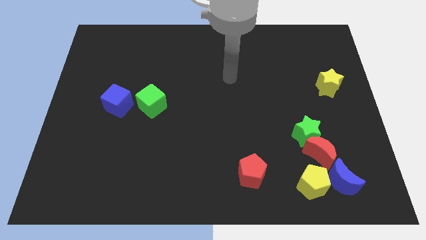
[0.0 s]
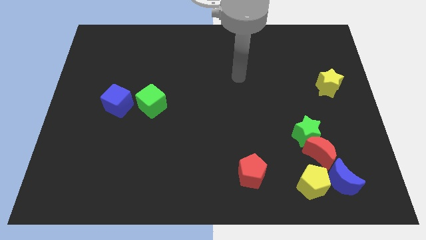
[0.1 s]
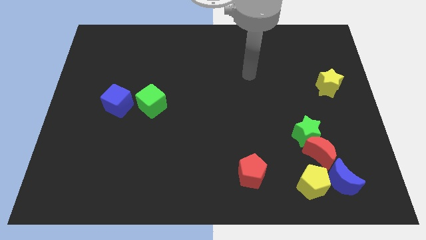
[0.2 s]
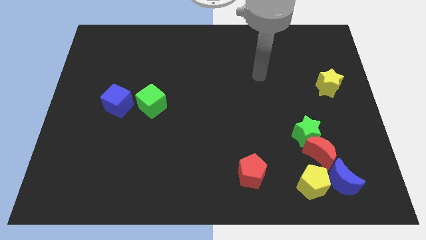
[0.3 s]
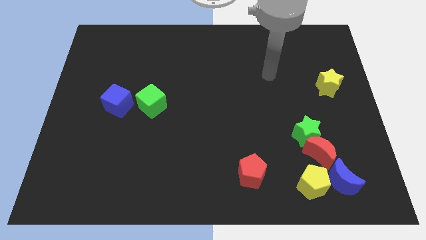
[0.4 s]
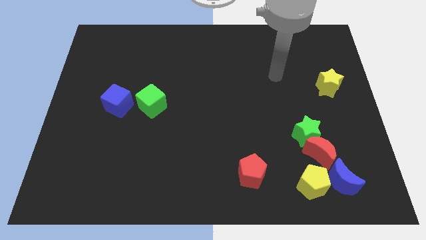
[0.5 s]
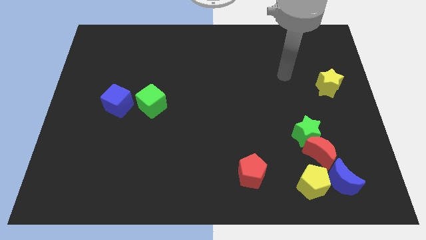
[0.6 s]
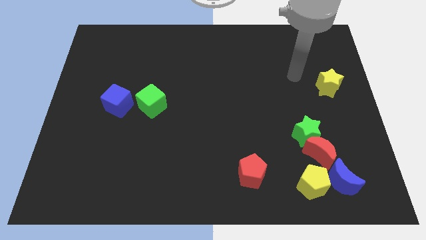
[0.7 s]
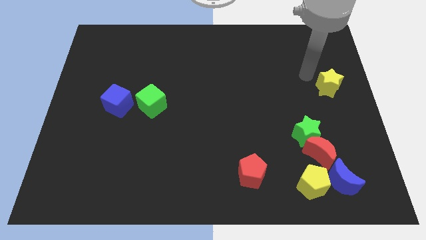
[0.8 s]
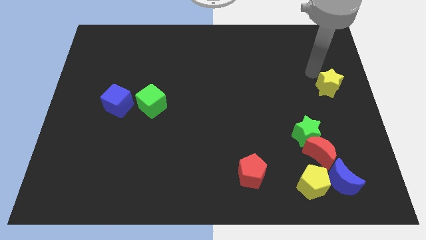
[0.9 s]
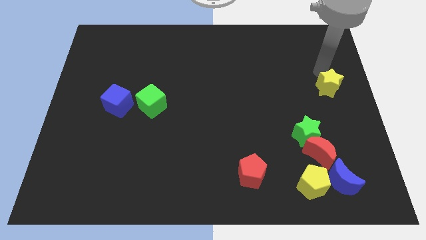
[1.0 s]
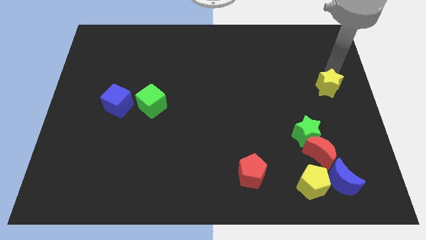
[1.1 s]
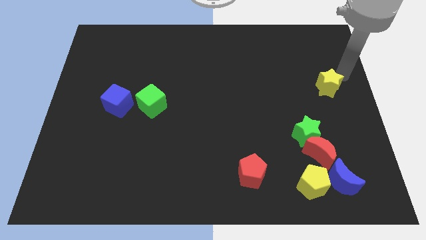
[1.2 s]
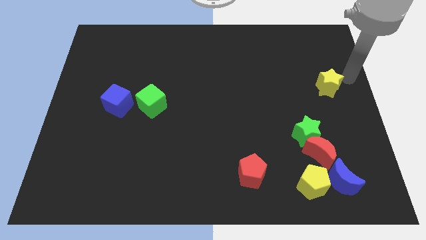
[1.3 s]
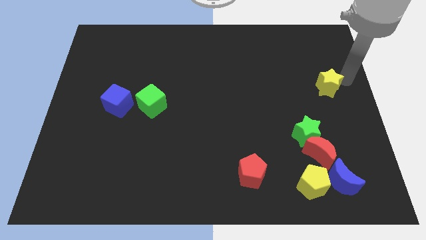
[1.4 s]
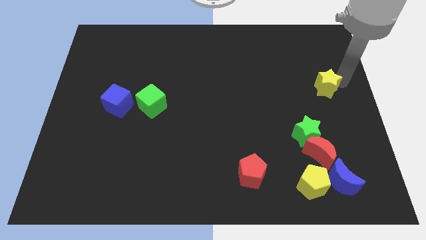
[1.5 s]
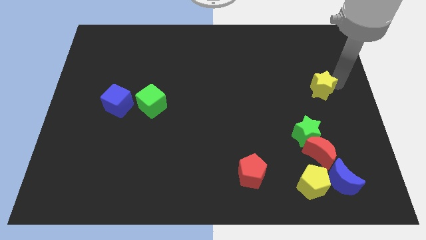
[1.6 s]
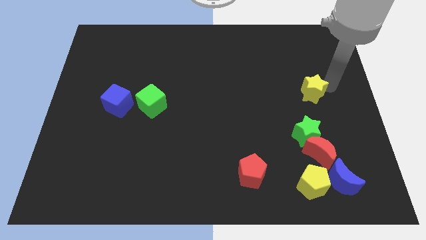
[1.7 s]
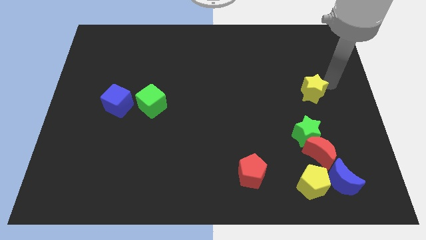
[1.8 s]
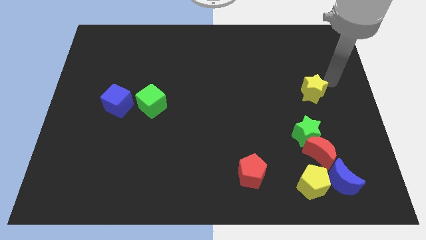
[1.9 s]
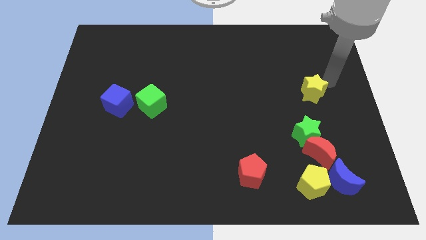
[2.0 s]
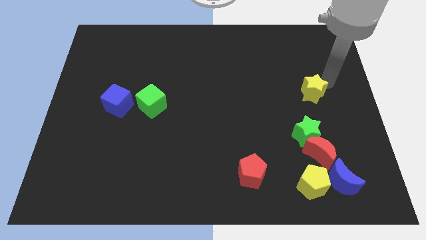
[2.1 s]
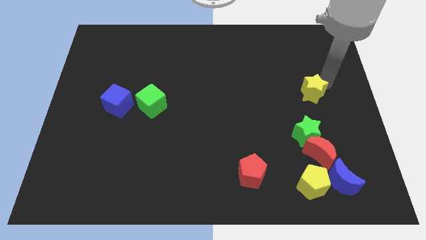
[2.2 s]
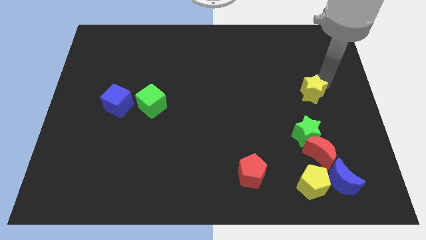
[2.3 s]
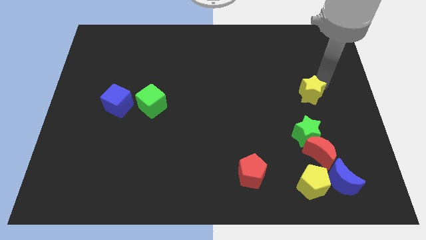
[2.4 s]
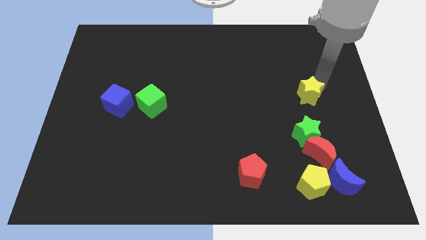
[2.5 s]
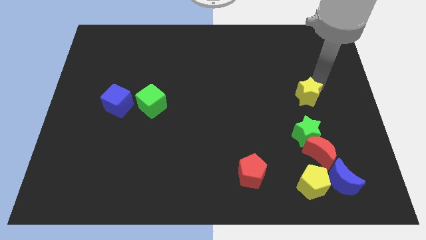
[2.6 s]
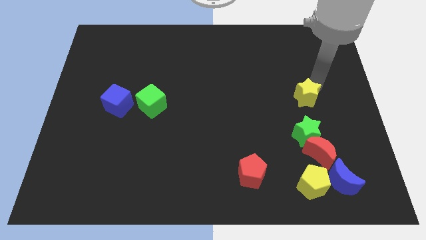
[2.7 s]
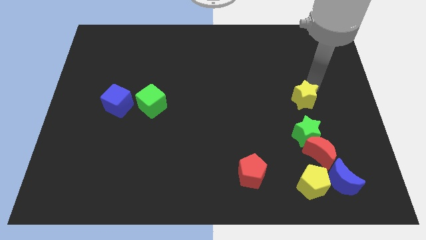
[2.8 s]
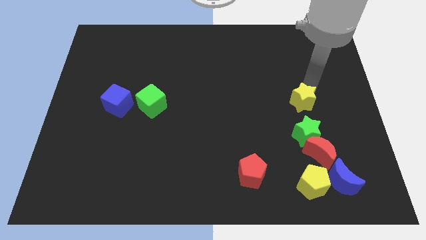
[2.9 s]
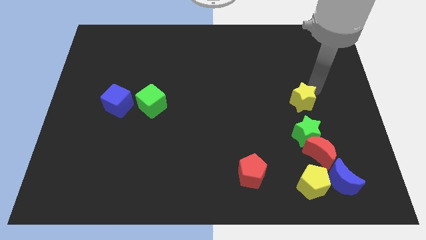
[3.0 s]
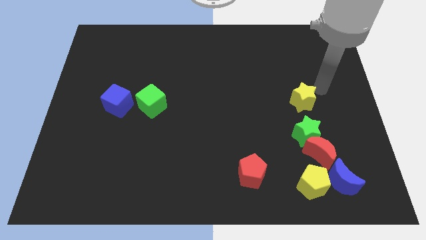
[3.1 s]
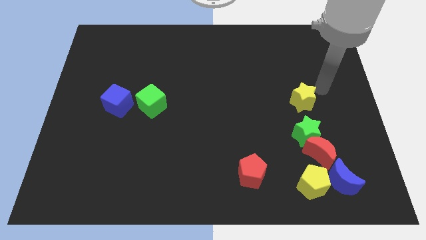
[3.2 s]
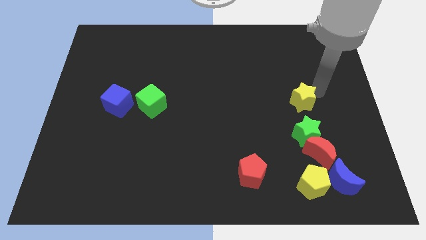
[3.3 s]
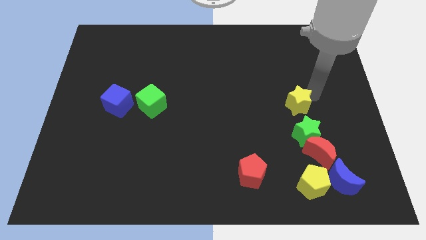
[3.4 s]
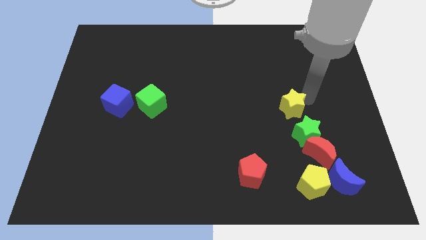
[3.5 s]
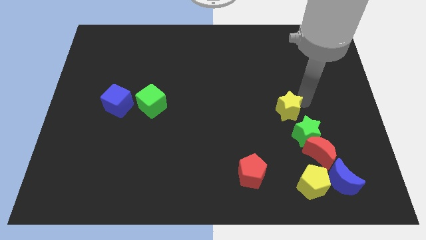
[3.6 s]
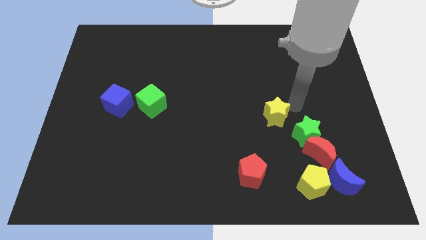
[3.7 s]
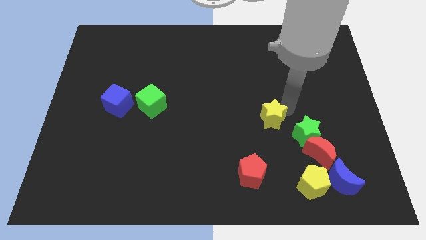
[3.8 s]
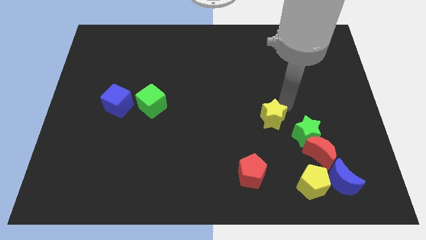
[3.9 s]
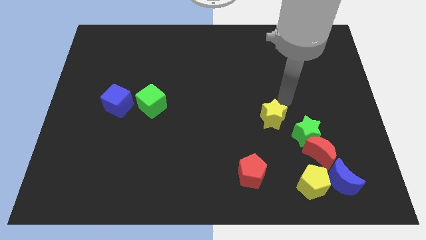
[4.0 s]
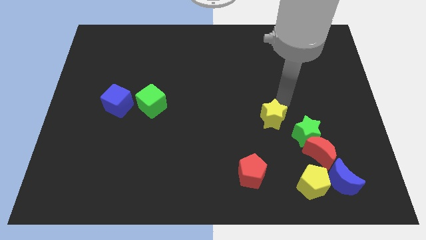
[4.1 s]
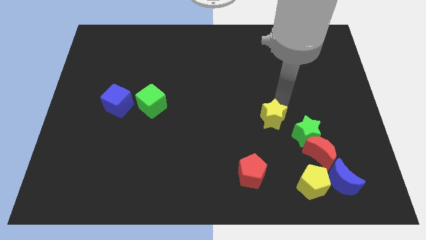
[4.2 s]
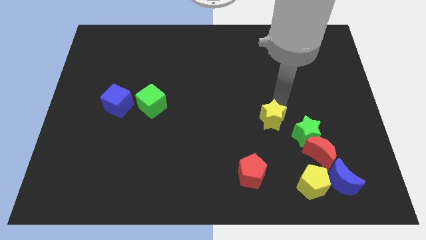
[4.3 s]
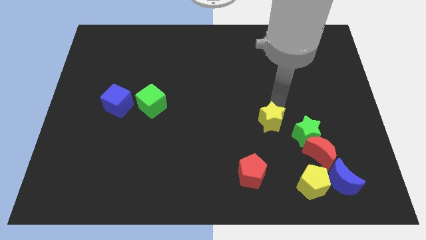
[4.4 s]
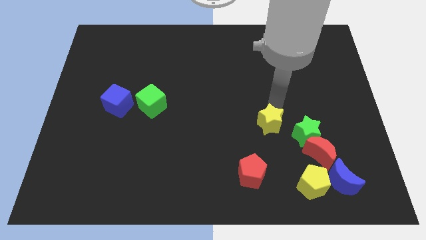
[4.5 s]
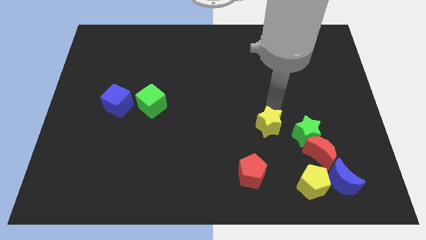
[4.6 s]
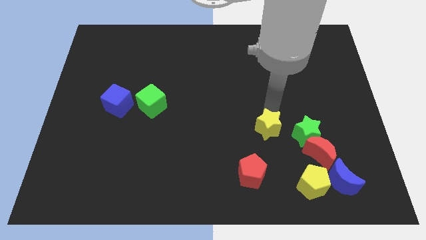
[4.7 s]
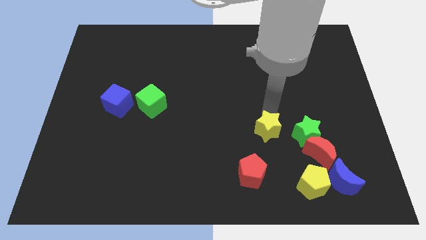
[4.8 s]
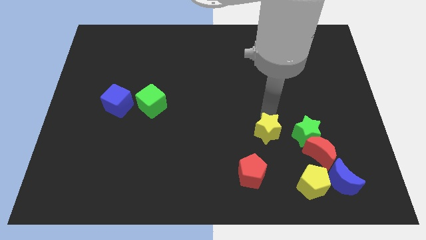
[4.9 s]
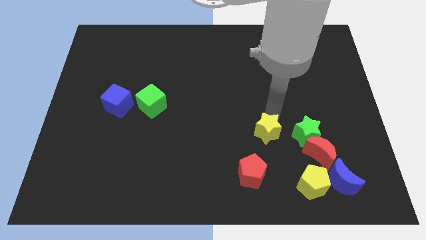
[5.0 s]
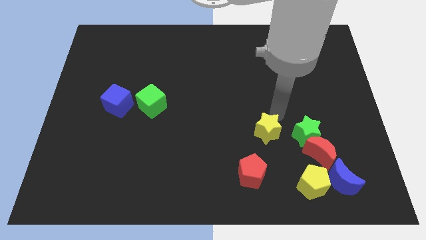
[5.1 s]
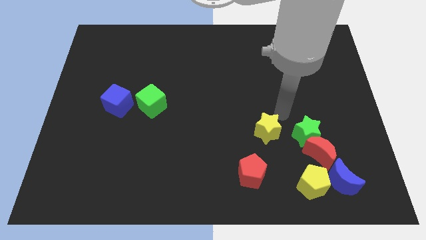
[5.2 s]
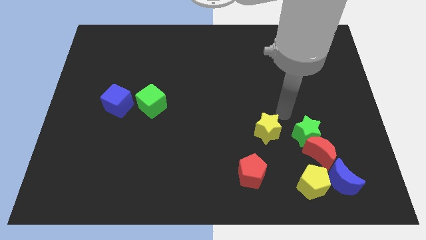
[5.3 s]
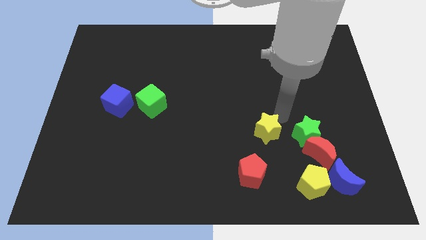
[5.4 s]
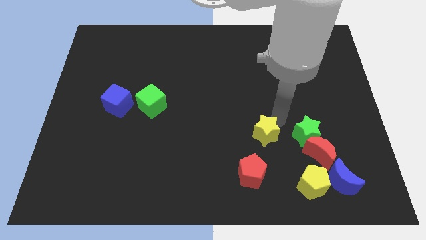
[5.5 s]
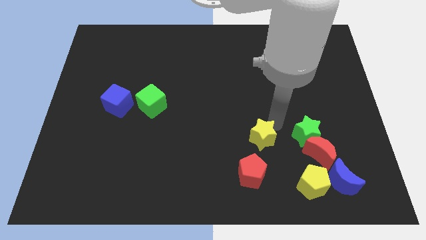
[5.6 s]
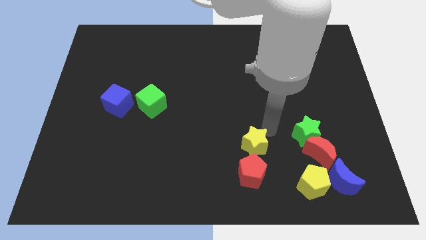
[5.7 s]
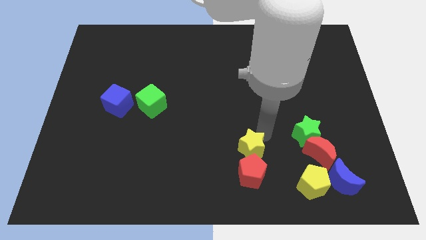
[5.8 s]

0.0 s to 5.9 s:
put the yellow star to the red pentagon

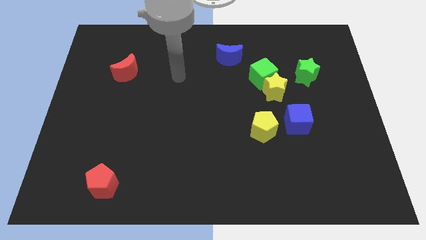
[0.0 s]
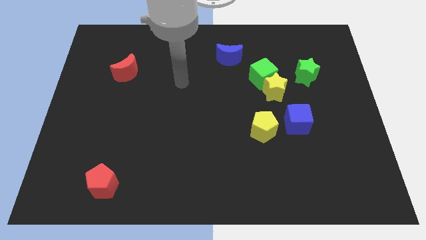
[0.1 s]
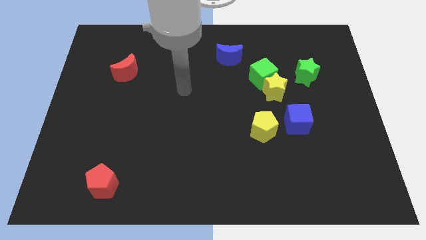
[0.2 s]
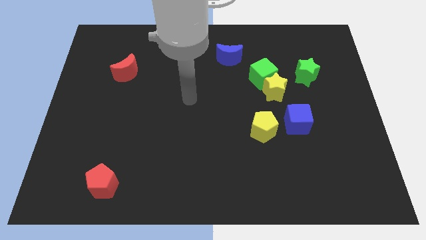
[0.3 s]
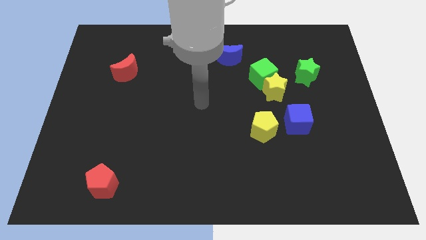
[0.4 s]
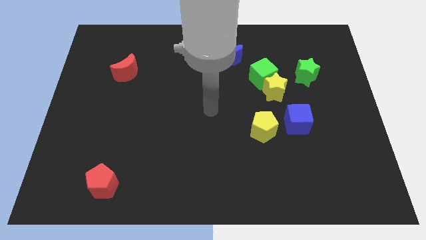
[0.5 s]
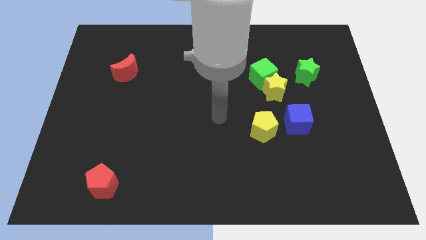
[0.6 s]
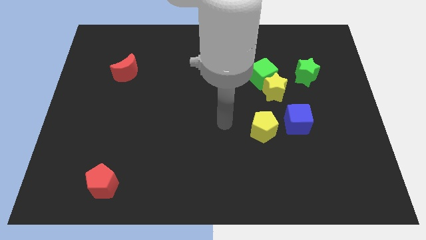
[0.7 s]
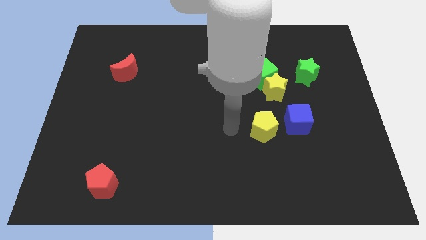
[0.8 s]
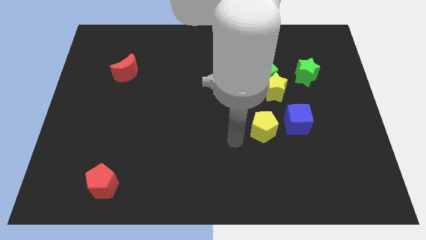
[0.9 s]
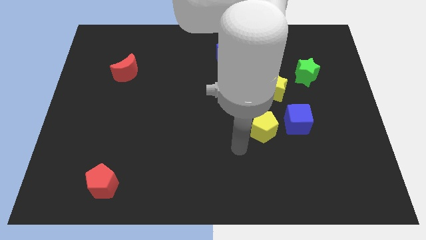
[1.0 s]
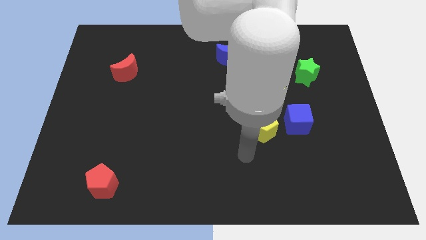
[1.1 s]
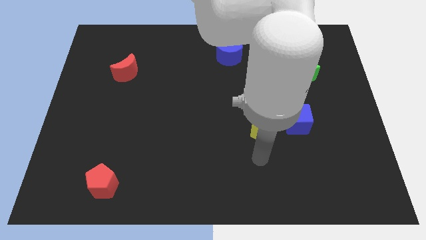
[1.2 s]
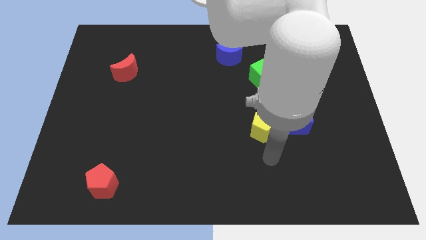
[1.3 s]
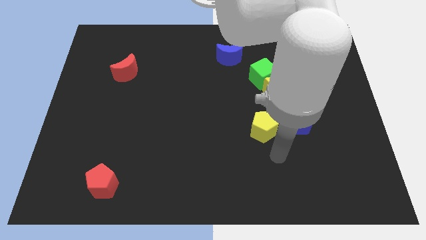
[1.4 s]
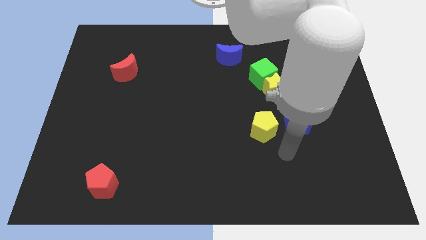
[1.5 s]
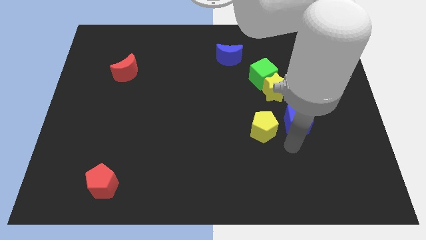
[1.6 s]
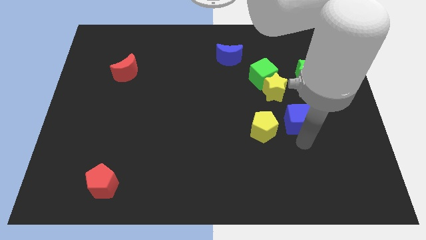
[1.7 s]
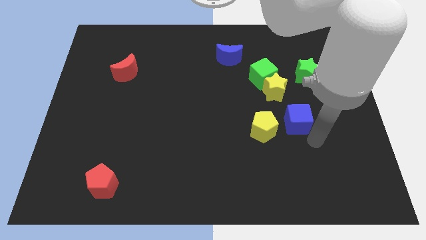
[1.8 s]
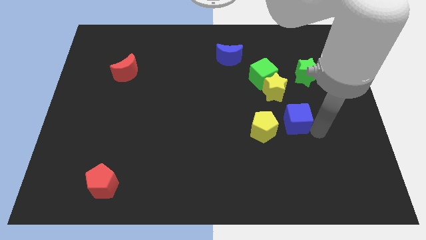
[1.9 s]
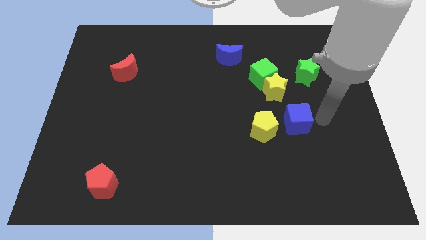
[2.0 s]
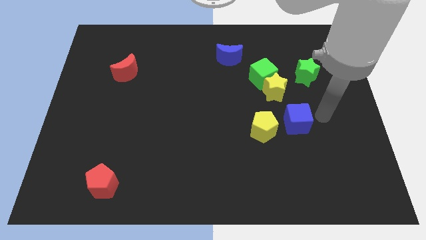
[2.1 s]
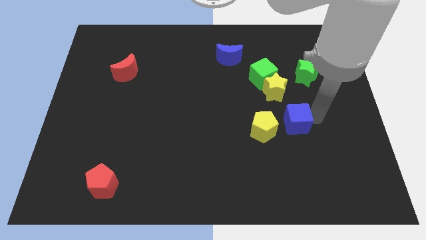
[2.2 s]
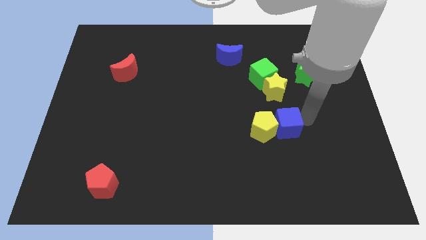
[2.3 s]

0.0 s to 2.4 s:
push the blue cube next to the yellow pentagon
